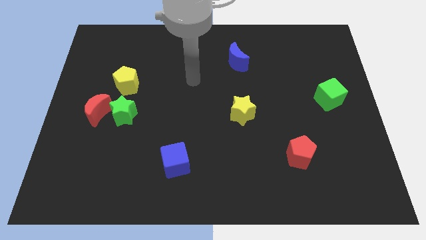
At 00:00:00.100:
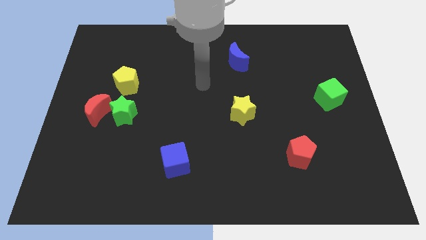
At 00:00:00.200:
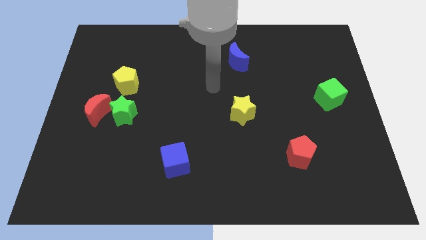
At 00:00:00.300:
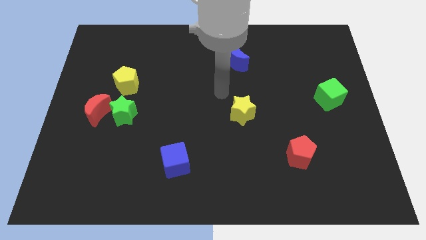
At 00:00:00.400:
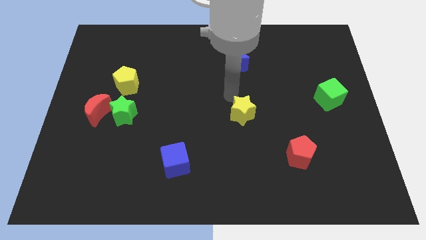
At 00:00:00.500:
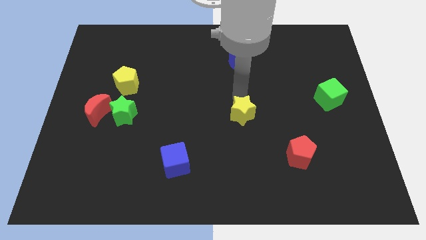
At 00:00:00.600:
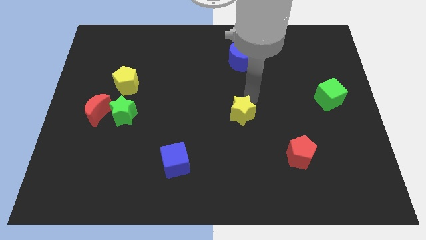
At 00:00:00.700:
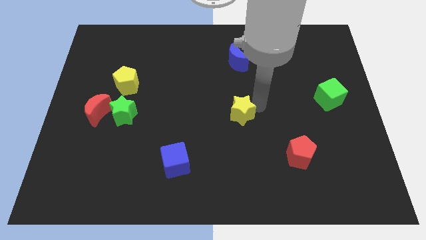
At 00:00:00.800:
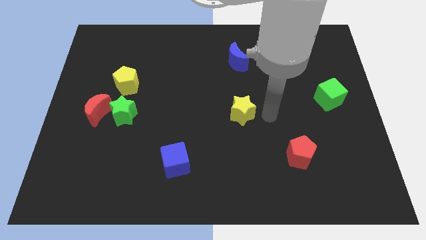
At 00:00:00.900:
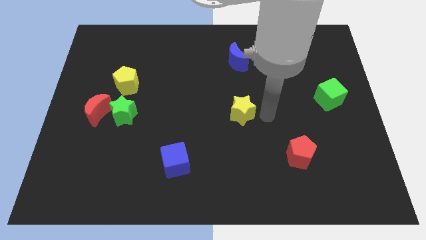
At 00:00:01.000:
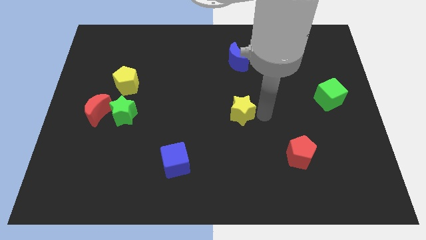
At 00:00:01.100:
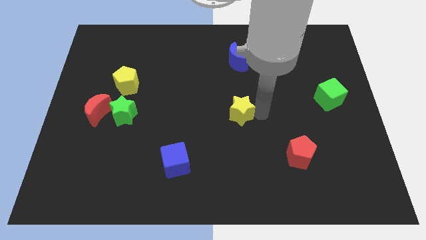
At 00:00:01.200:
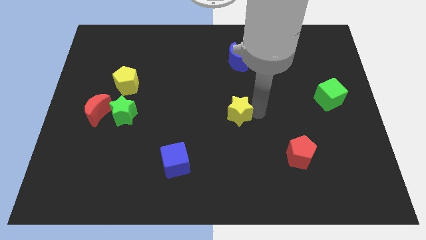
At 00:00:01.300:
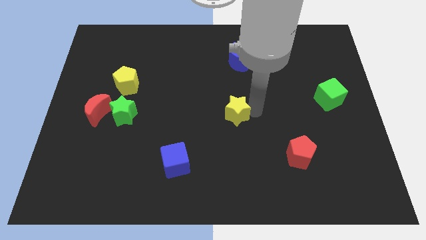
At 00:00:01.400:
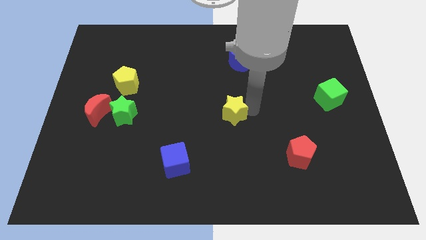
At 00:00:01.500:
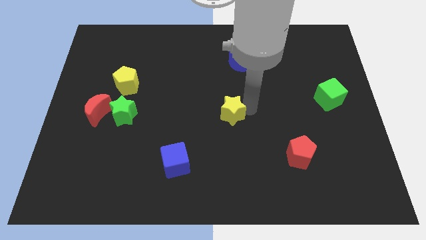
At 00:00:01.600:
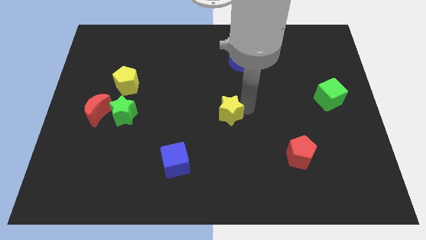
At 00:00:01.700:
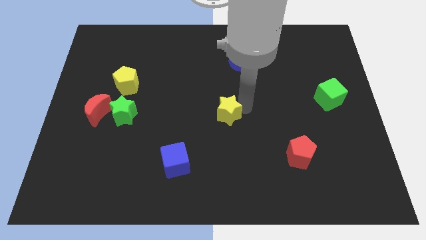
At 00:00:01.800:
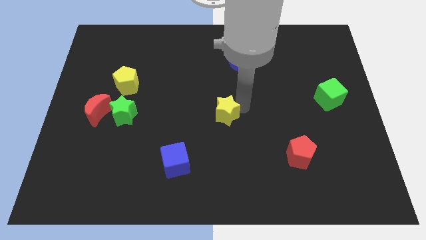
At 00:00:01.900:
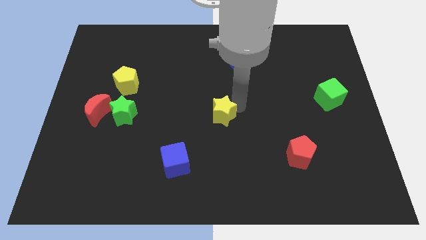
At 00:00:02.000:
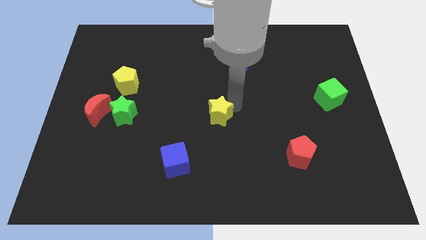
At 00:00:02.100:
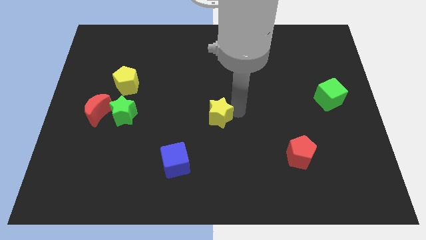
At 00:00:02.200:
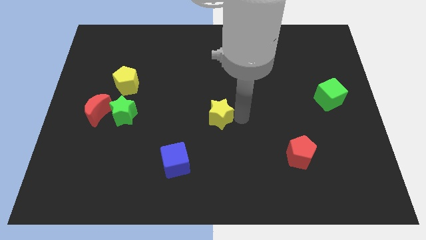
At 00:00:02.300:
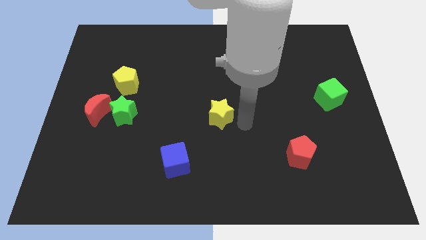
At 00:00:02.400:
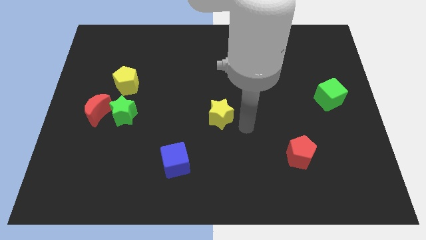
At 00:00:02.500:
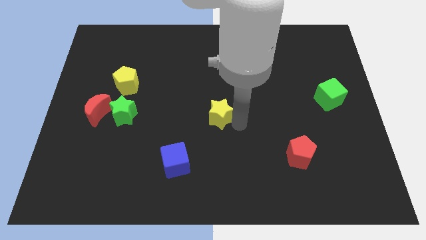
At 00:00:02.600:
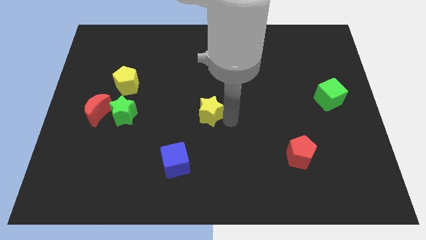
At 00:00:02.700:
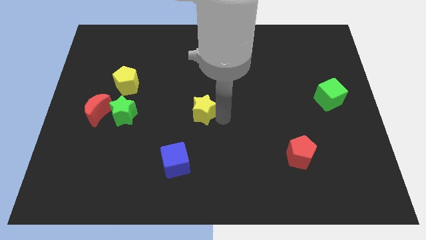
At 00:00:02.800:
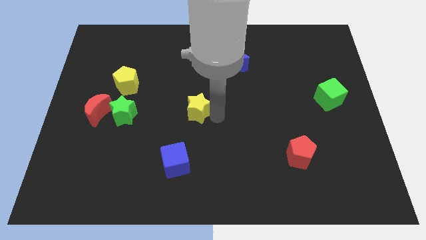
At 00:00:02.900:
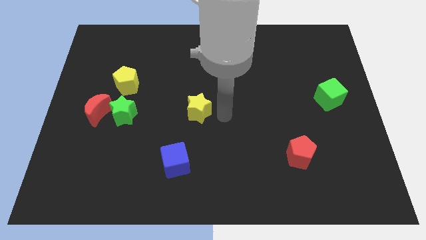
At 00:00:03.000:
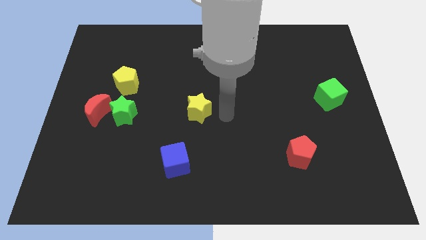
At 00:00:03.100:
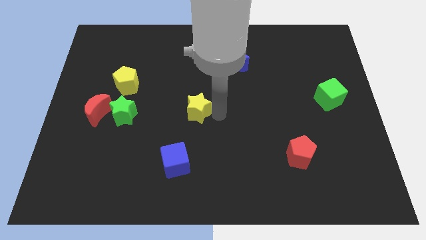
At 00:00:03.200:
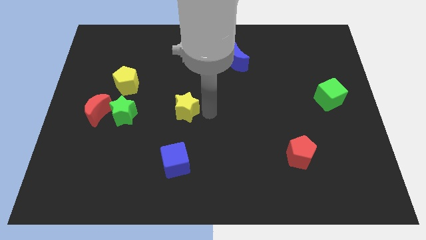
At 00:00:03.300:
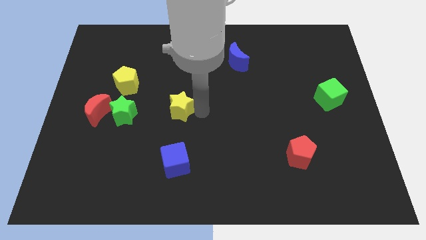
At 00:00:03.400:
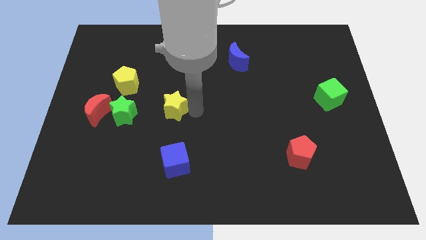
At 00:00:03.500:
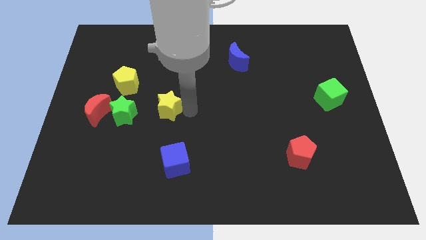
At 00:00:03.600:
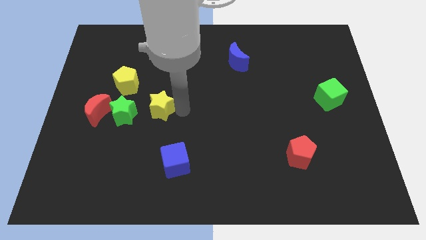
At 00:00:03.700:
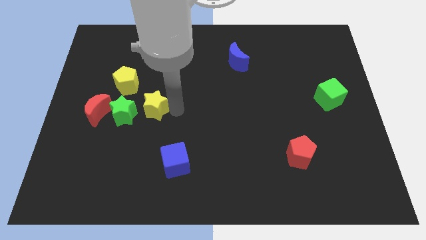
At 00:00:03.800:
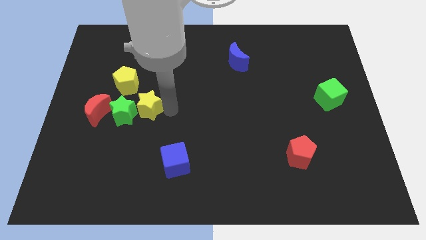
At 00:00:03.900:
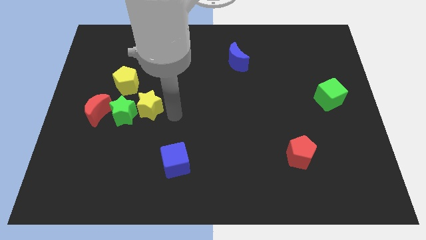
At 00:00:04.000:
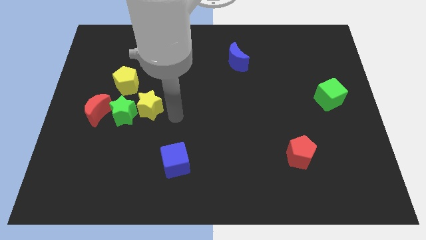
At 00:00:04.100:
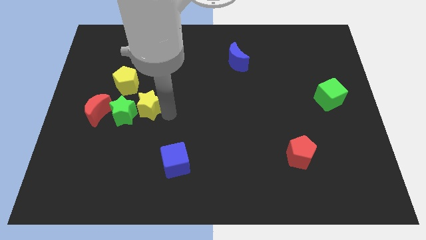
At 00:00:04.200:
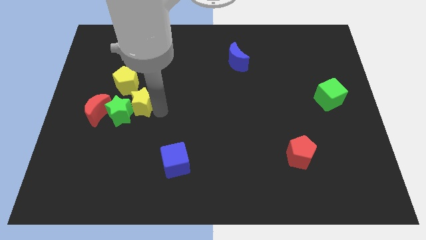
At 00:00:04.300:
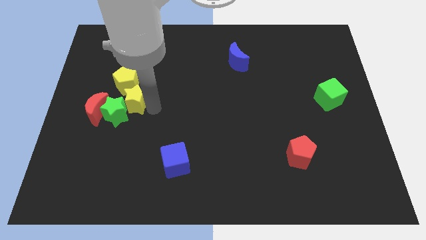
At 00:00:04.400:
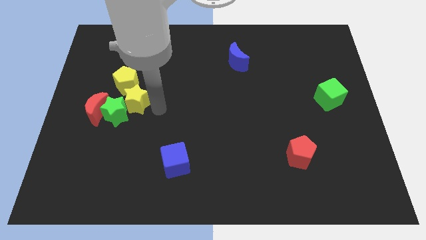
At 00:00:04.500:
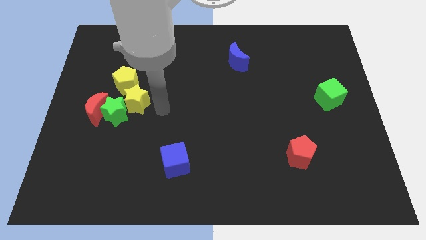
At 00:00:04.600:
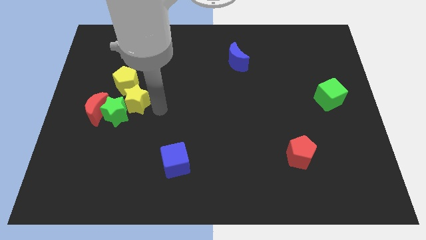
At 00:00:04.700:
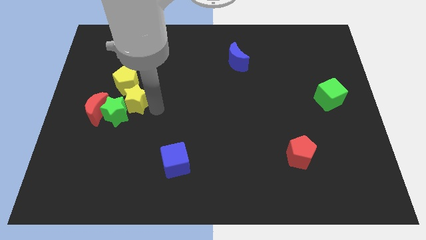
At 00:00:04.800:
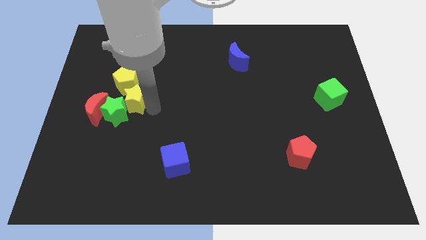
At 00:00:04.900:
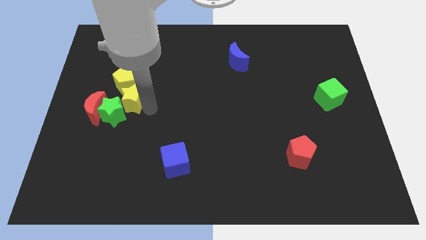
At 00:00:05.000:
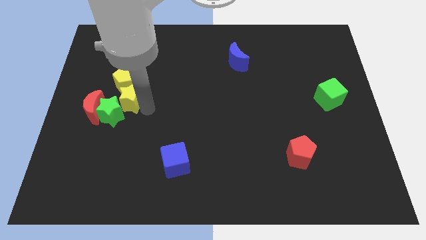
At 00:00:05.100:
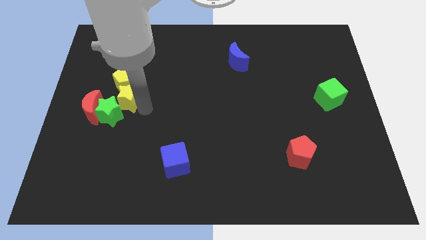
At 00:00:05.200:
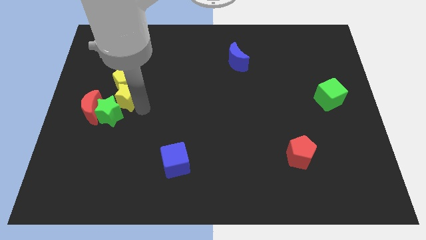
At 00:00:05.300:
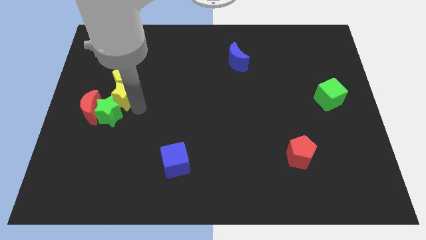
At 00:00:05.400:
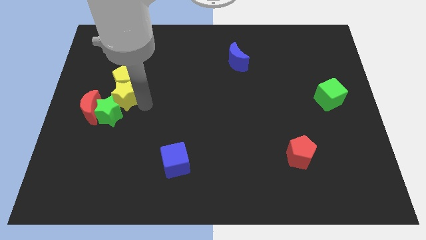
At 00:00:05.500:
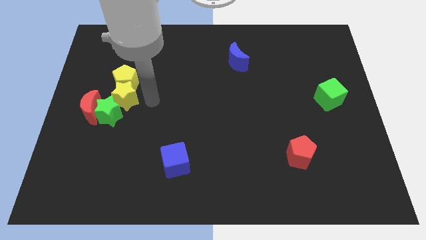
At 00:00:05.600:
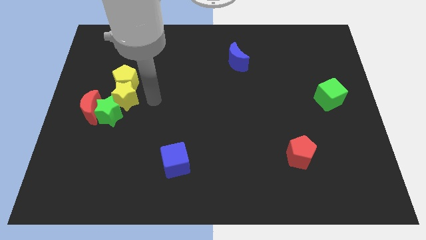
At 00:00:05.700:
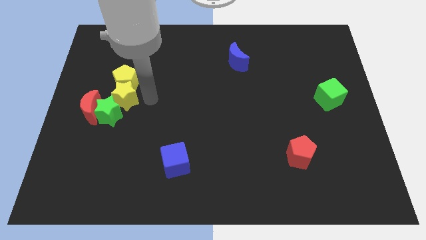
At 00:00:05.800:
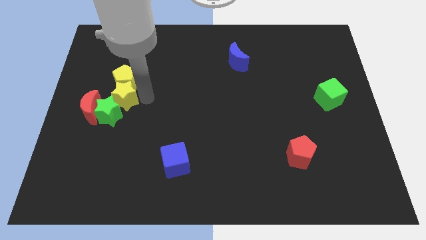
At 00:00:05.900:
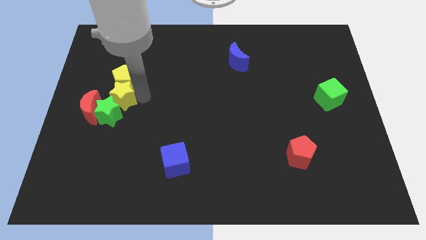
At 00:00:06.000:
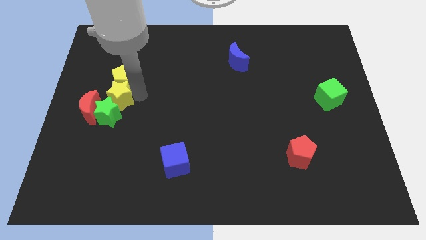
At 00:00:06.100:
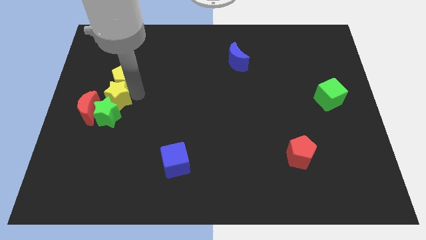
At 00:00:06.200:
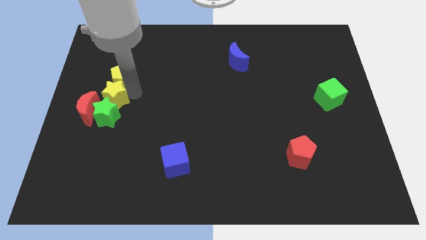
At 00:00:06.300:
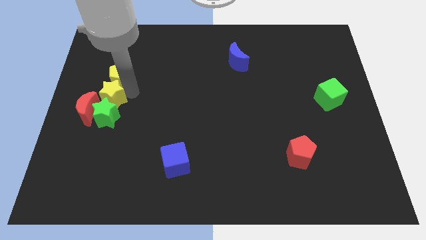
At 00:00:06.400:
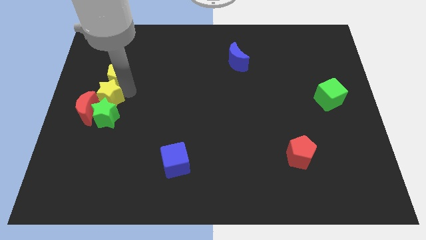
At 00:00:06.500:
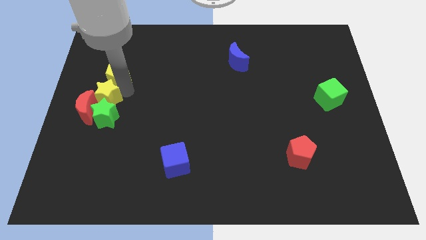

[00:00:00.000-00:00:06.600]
move the yellow star to the center left
